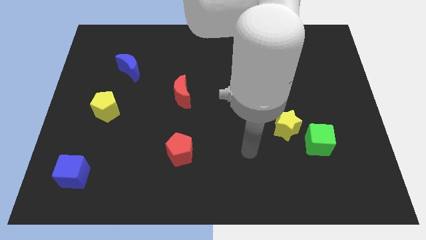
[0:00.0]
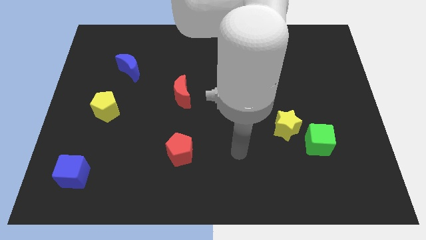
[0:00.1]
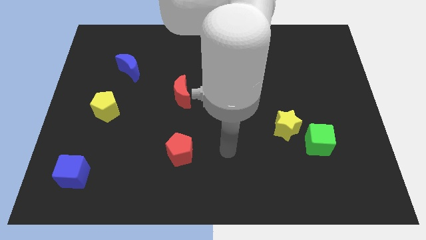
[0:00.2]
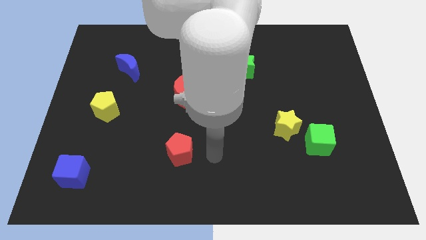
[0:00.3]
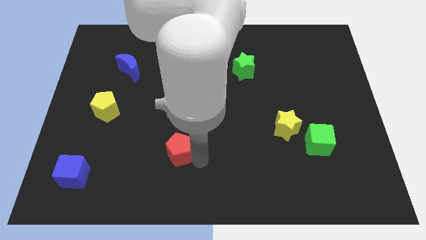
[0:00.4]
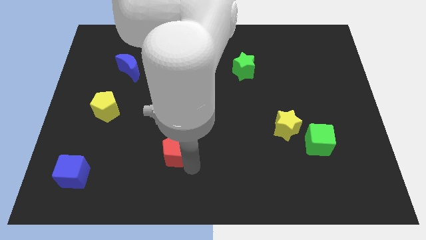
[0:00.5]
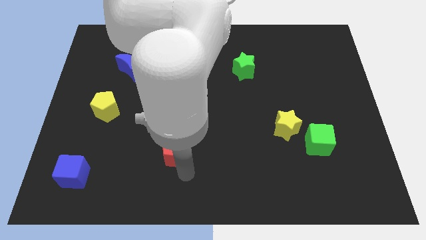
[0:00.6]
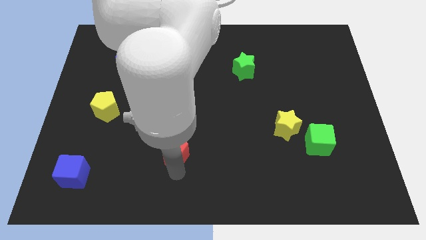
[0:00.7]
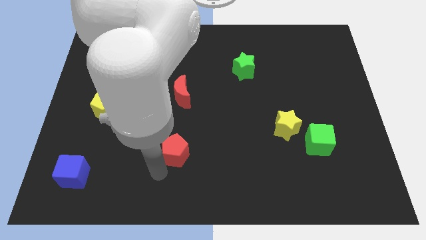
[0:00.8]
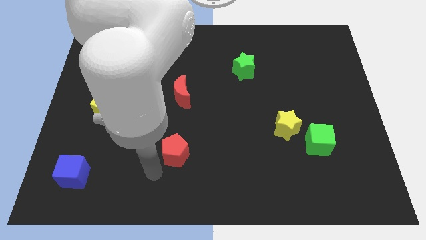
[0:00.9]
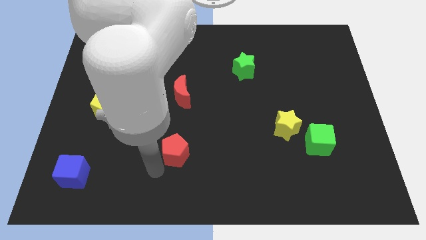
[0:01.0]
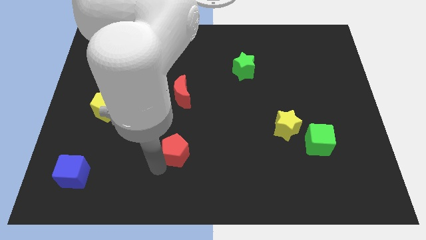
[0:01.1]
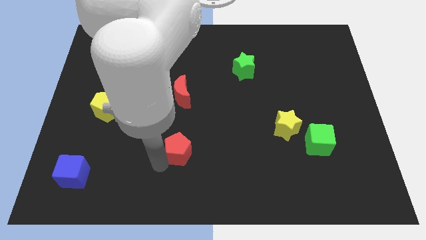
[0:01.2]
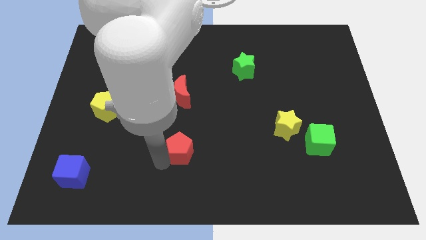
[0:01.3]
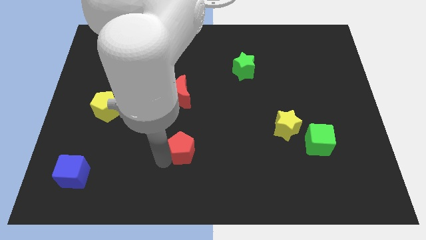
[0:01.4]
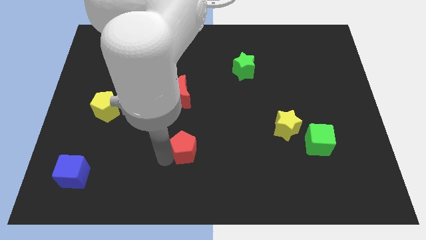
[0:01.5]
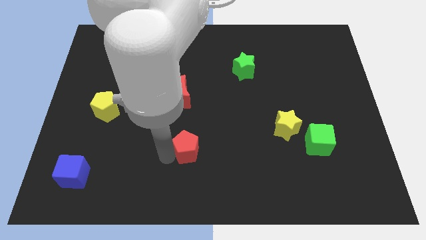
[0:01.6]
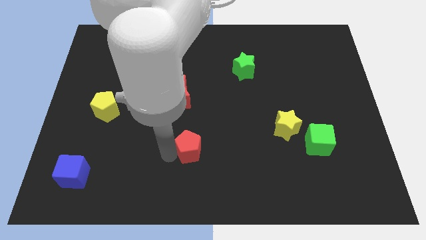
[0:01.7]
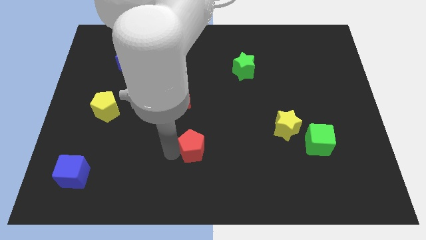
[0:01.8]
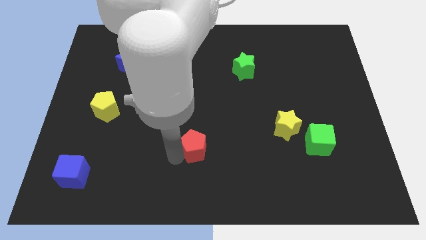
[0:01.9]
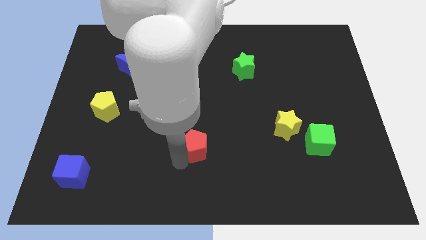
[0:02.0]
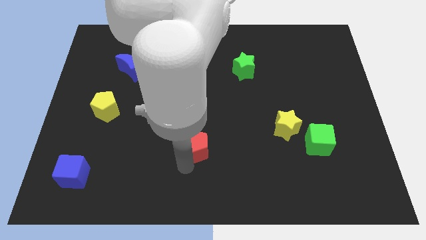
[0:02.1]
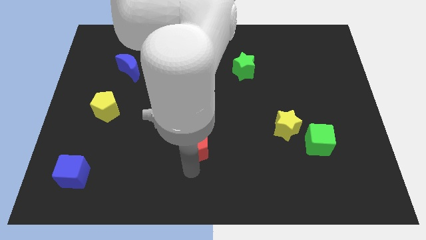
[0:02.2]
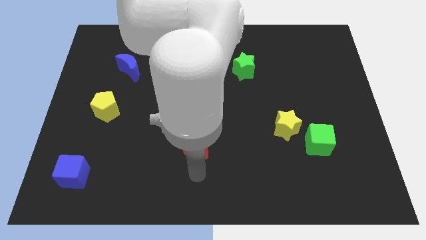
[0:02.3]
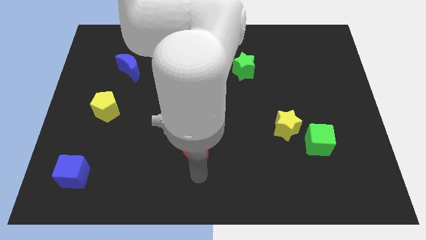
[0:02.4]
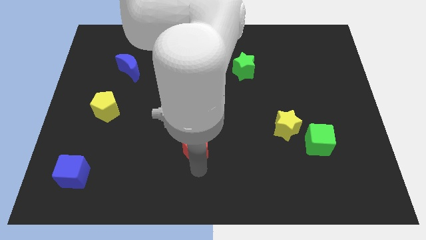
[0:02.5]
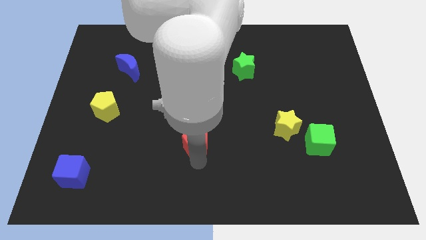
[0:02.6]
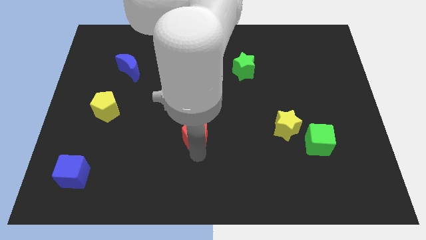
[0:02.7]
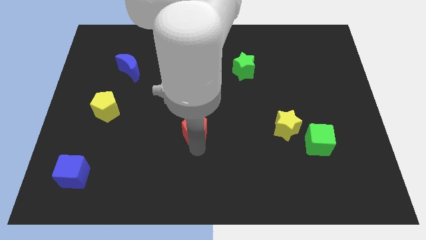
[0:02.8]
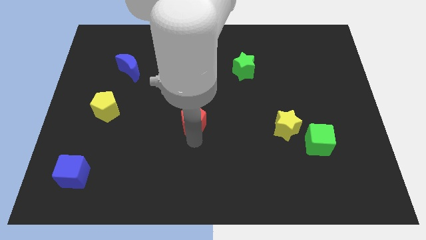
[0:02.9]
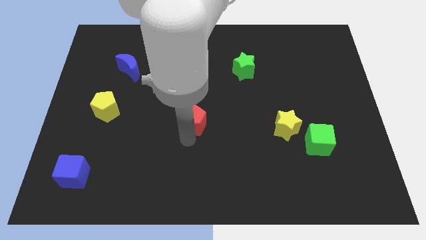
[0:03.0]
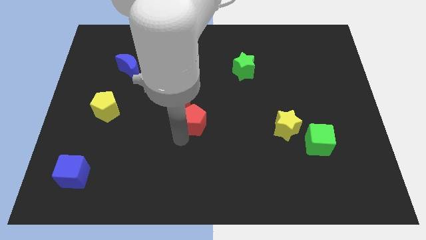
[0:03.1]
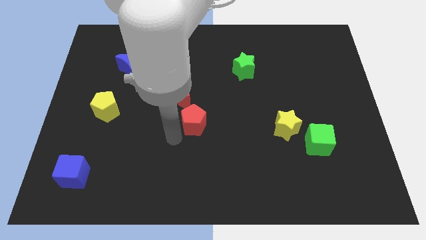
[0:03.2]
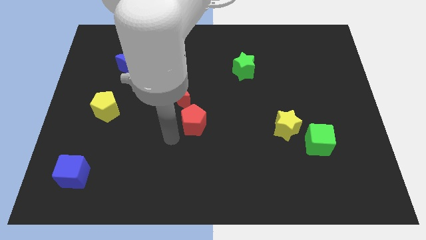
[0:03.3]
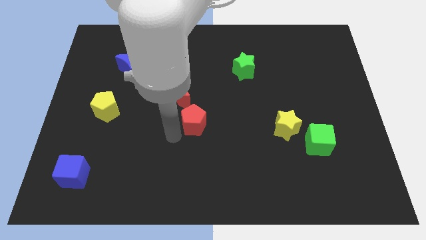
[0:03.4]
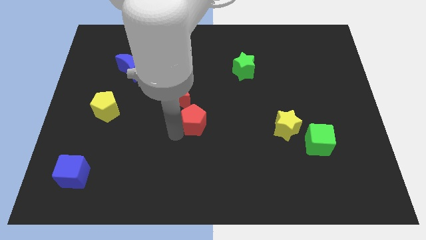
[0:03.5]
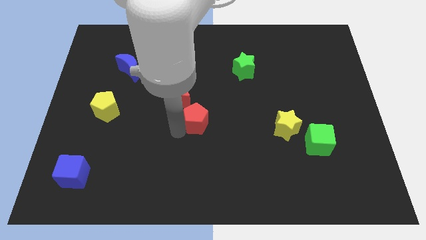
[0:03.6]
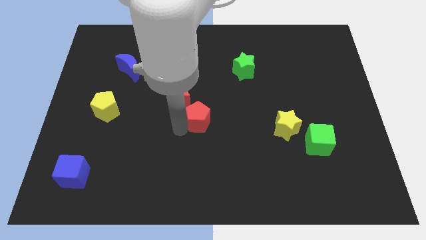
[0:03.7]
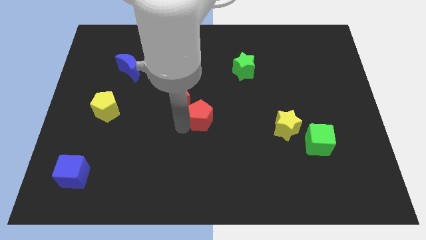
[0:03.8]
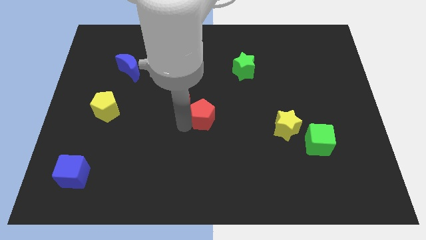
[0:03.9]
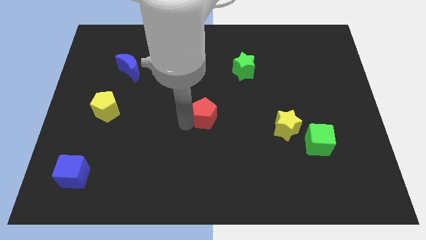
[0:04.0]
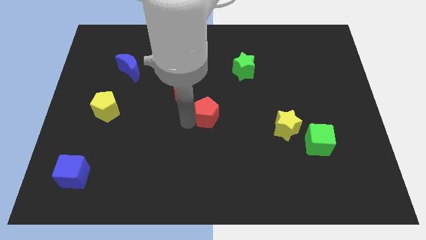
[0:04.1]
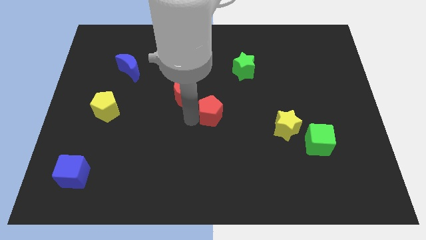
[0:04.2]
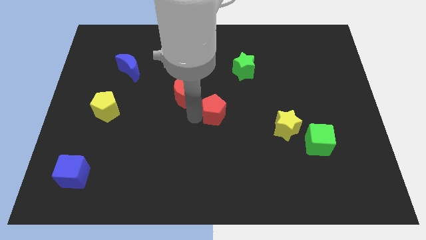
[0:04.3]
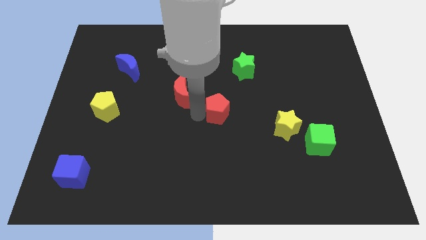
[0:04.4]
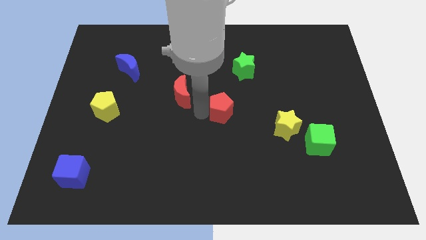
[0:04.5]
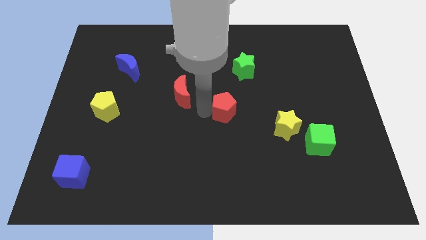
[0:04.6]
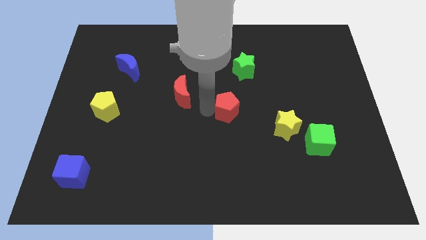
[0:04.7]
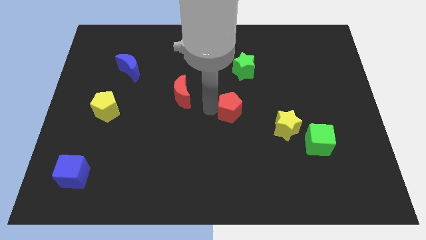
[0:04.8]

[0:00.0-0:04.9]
push the red pentagon to the bottom side of the green star

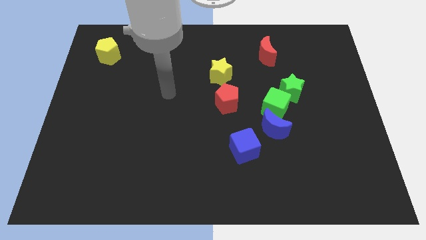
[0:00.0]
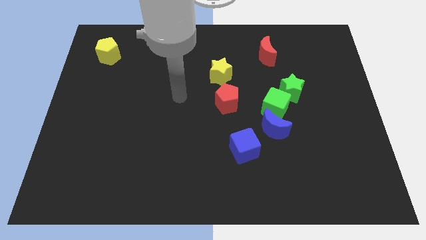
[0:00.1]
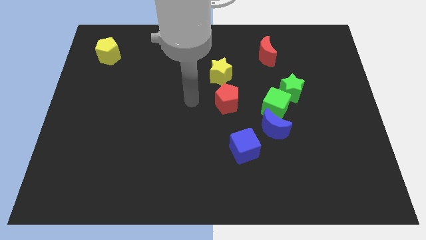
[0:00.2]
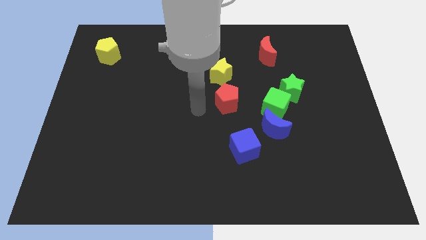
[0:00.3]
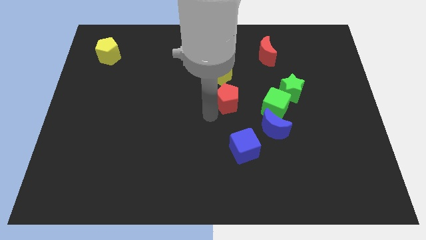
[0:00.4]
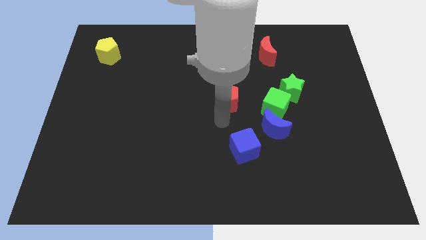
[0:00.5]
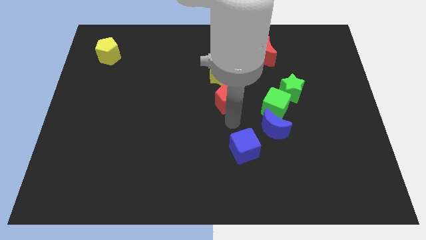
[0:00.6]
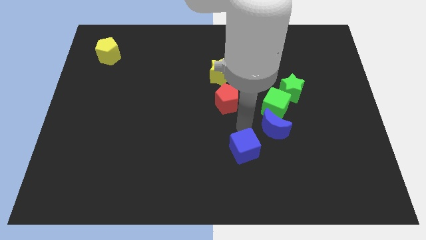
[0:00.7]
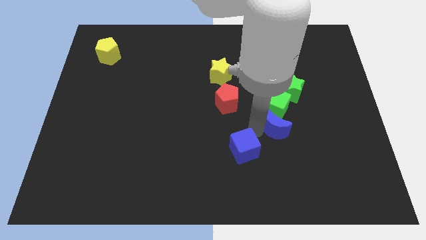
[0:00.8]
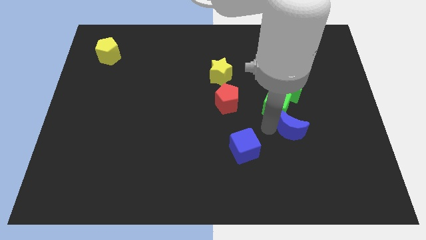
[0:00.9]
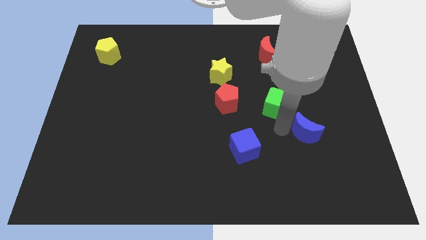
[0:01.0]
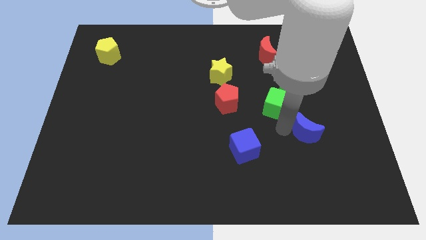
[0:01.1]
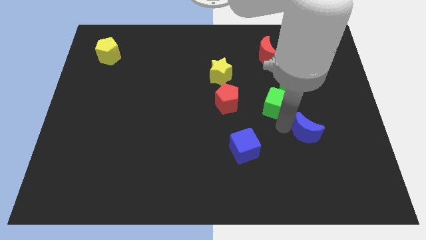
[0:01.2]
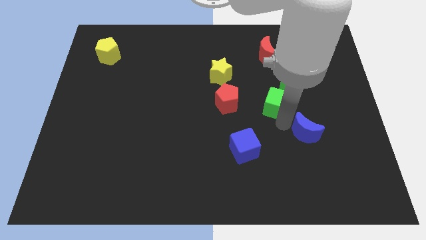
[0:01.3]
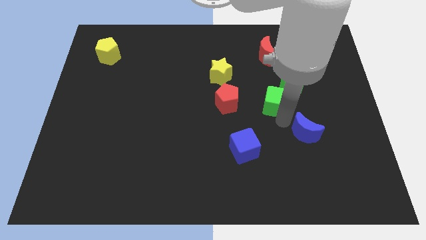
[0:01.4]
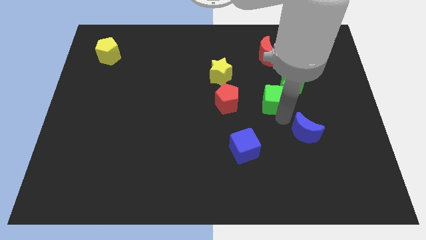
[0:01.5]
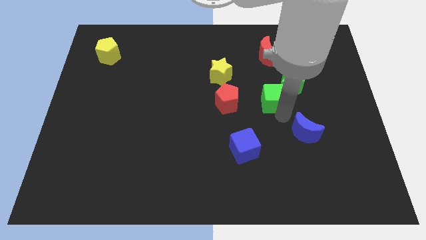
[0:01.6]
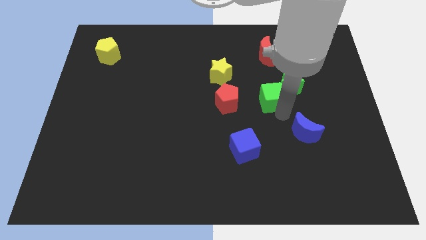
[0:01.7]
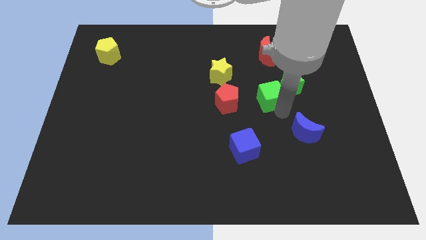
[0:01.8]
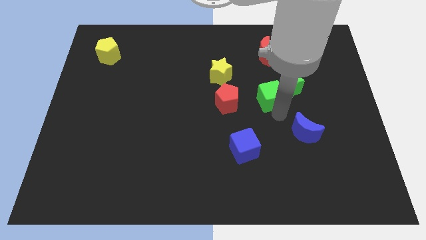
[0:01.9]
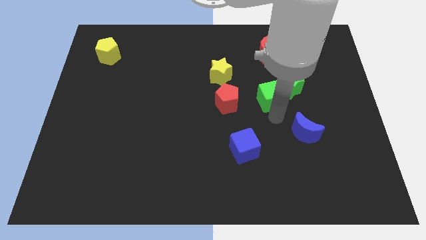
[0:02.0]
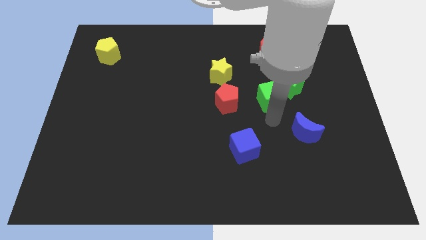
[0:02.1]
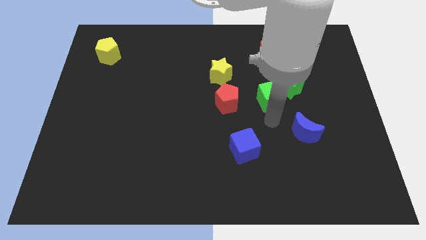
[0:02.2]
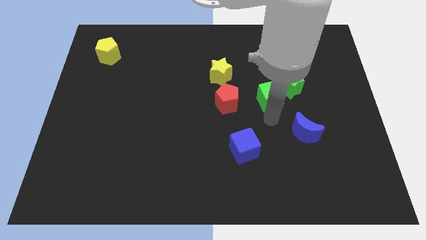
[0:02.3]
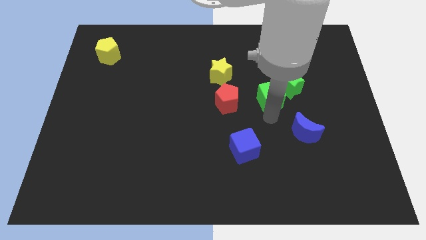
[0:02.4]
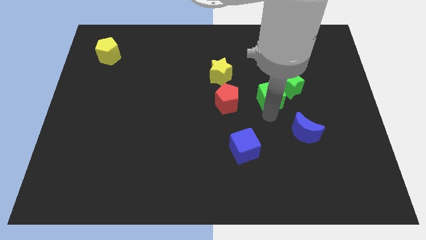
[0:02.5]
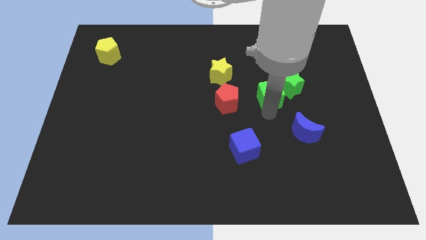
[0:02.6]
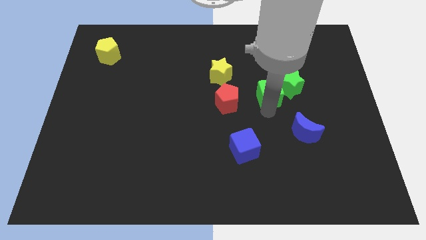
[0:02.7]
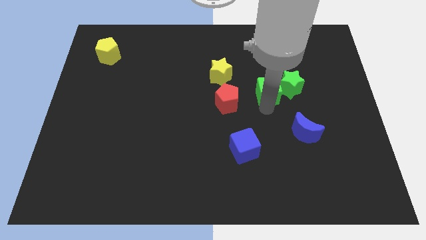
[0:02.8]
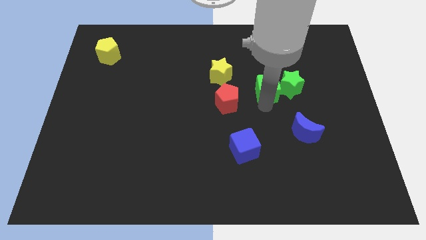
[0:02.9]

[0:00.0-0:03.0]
slide the green cube to the top left side of the green star
